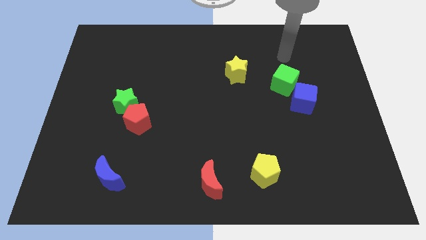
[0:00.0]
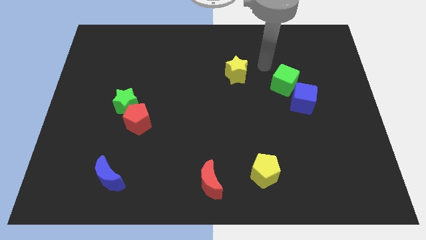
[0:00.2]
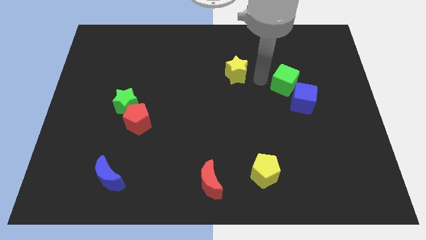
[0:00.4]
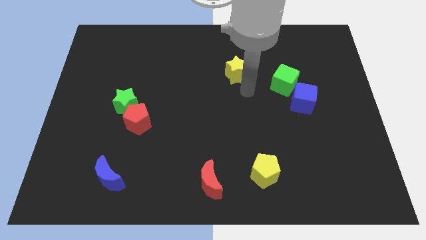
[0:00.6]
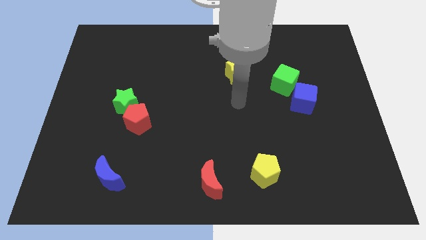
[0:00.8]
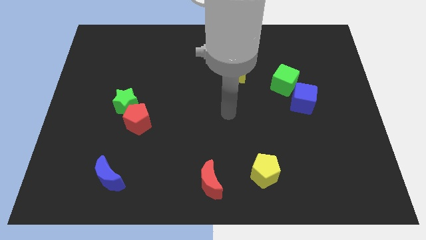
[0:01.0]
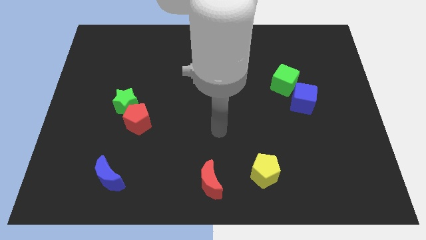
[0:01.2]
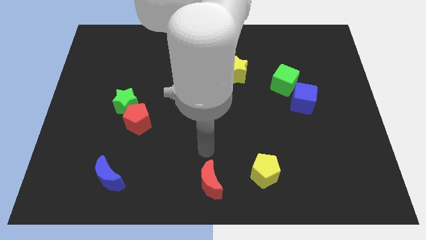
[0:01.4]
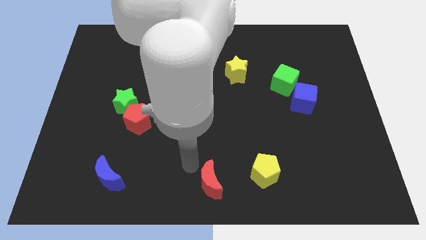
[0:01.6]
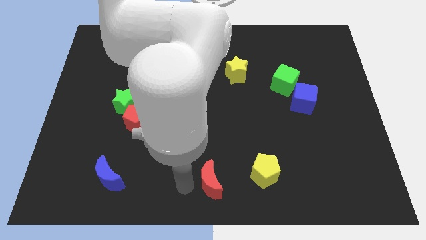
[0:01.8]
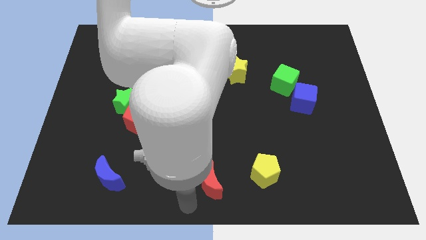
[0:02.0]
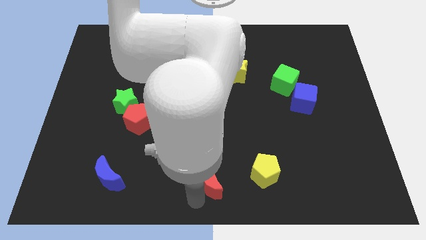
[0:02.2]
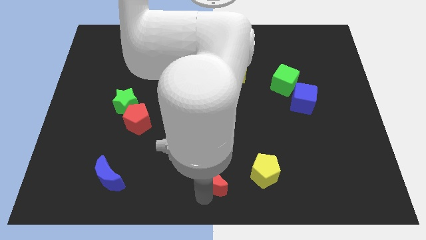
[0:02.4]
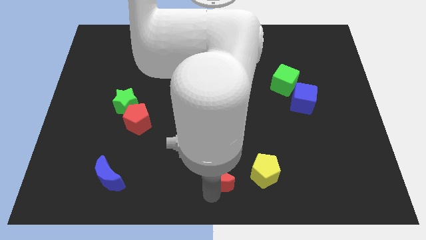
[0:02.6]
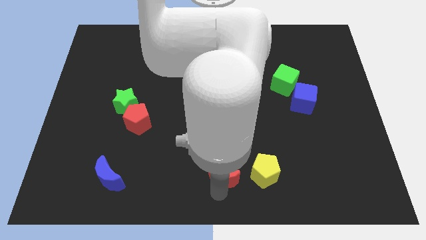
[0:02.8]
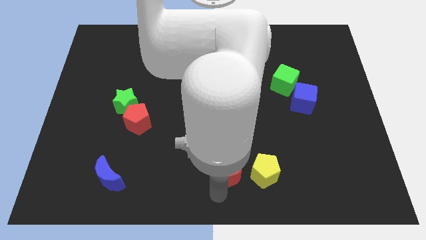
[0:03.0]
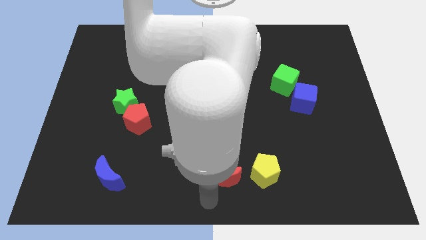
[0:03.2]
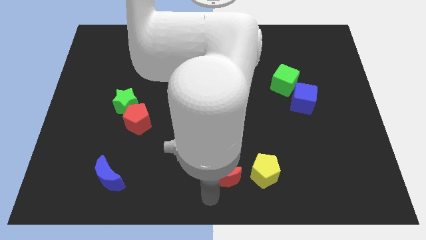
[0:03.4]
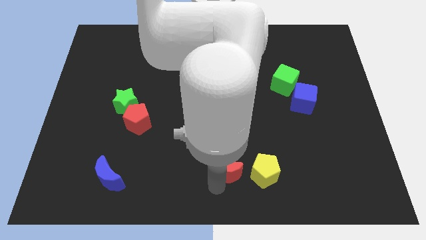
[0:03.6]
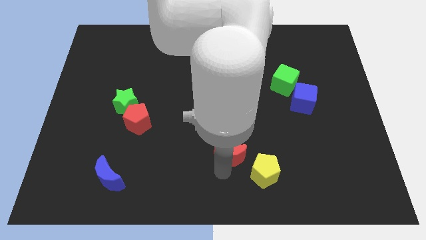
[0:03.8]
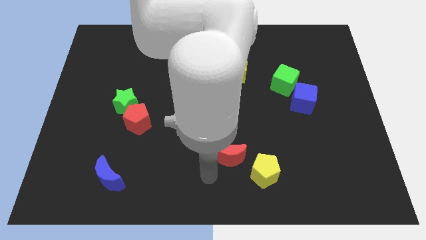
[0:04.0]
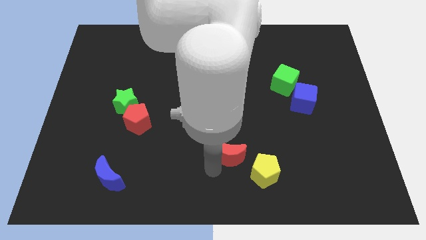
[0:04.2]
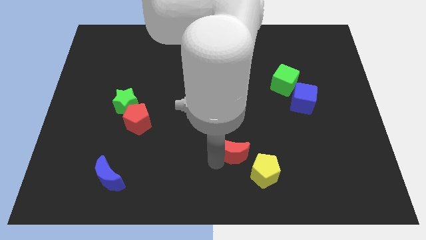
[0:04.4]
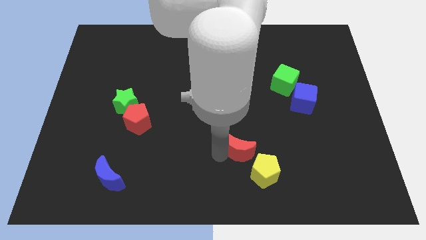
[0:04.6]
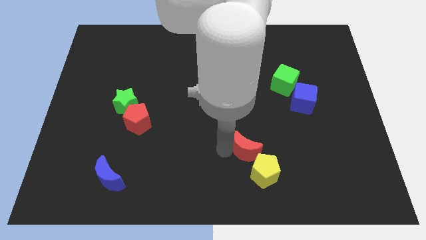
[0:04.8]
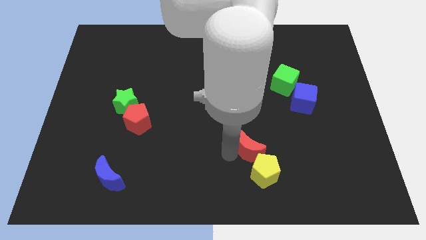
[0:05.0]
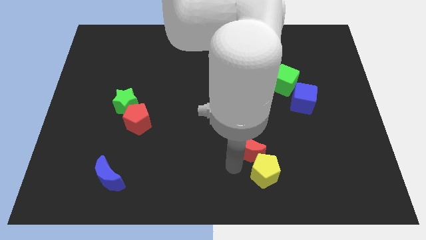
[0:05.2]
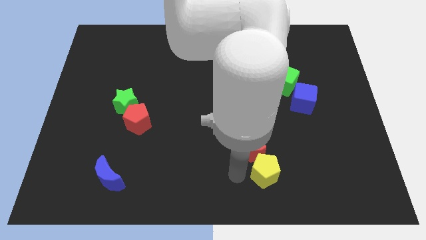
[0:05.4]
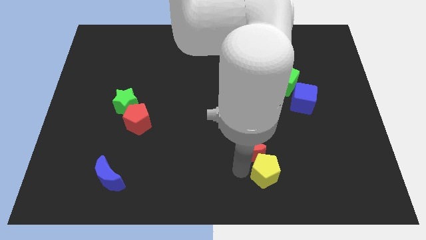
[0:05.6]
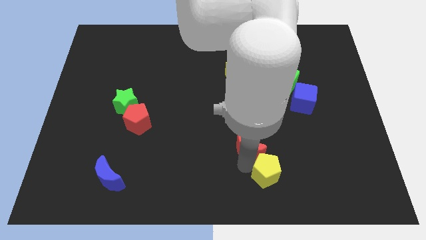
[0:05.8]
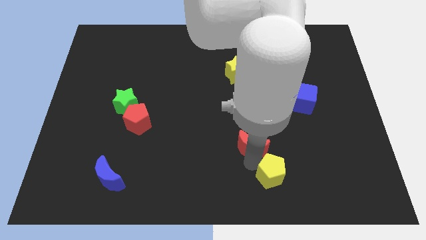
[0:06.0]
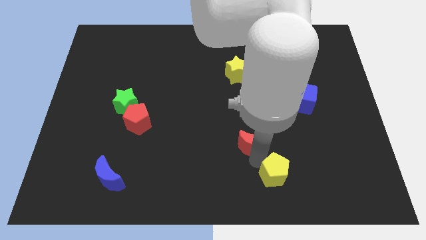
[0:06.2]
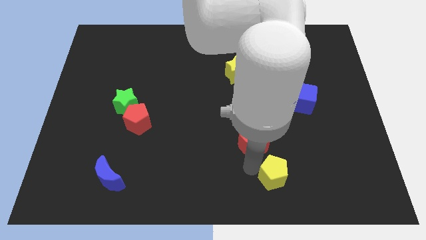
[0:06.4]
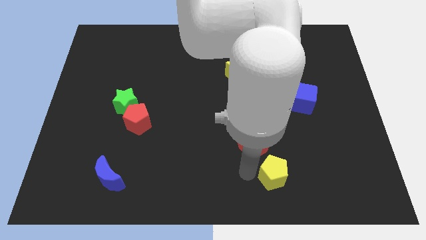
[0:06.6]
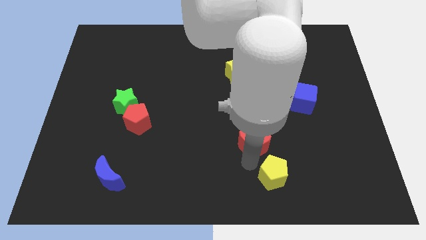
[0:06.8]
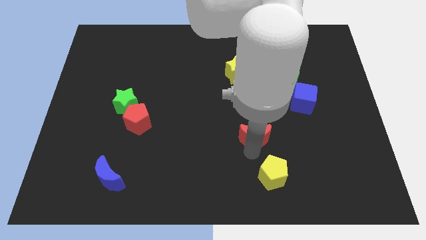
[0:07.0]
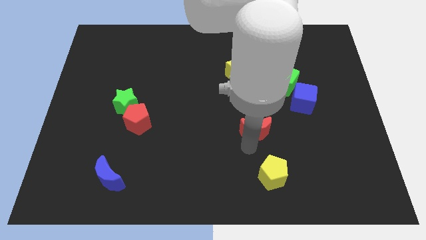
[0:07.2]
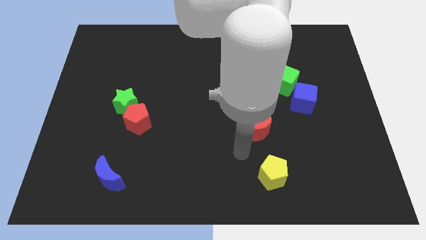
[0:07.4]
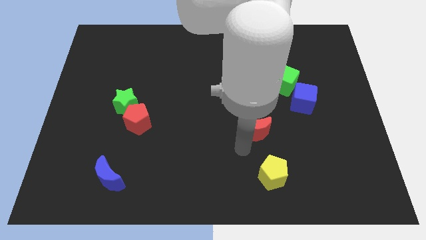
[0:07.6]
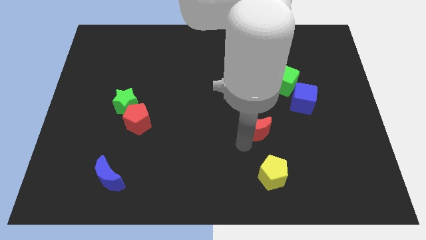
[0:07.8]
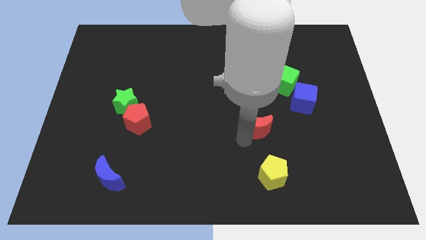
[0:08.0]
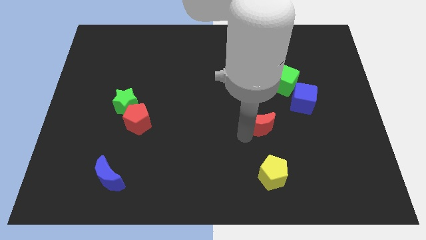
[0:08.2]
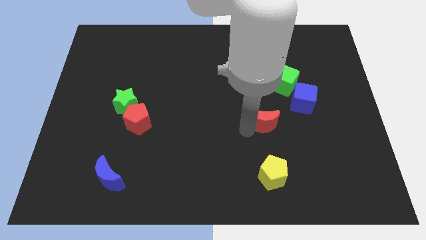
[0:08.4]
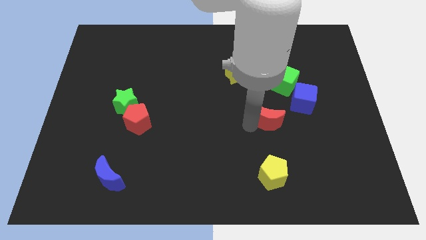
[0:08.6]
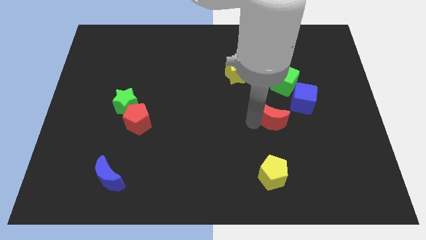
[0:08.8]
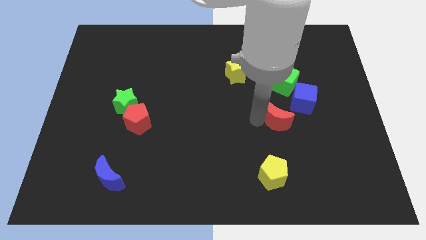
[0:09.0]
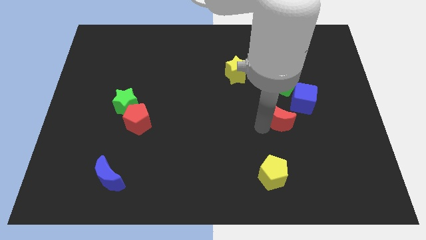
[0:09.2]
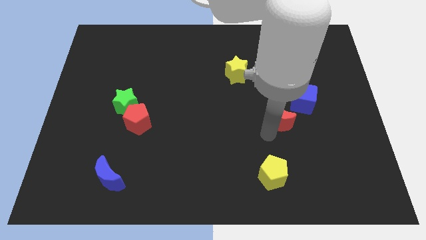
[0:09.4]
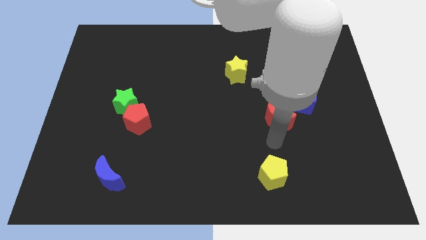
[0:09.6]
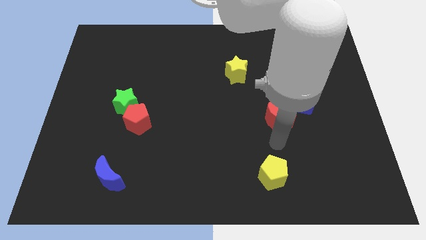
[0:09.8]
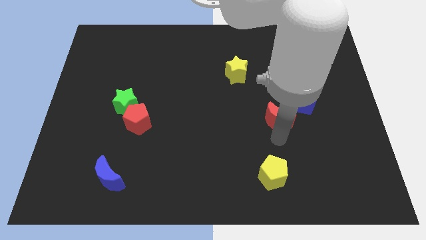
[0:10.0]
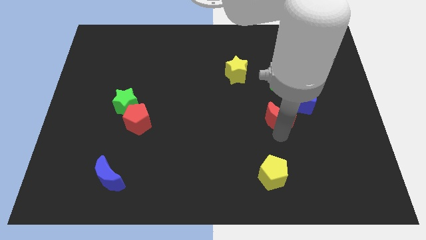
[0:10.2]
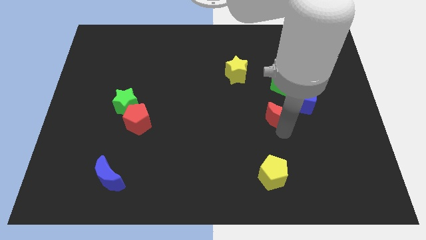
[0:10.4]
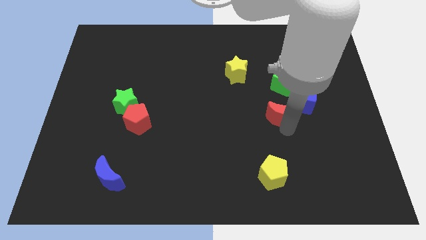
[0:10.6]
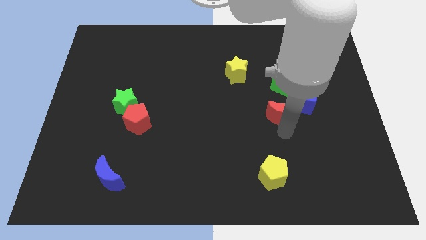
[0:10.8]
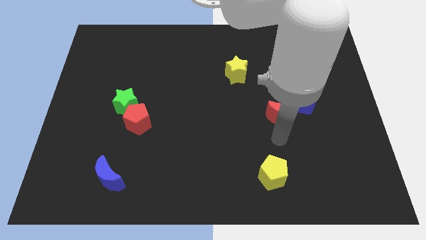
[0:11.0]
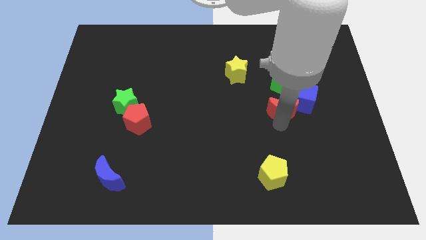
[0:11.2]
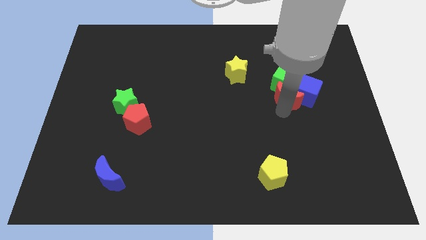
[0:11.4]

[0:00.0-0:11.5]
move the red moon next to the green cube

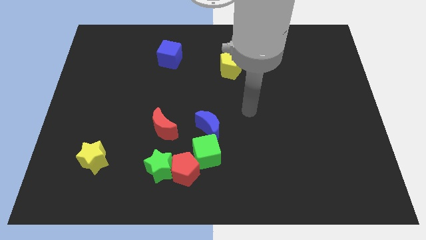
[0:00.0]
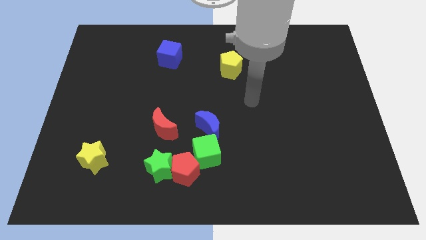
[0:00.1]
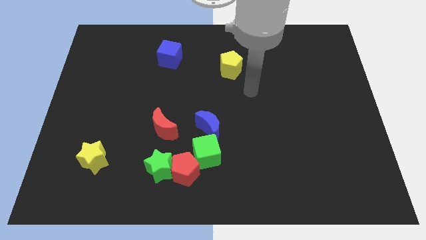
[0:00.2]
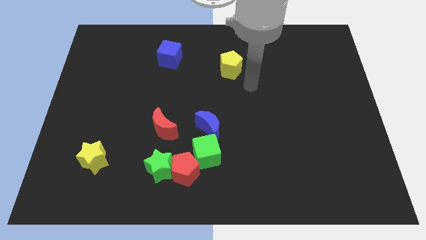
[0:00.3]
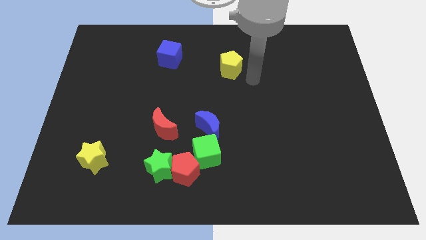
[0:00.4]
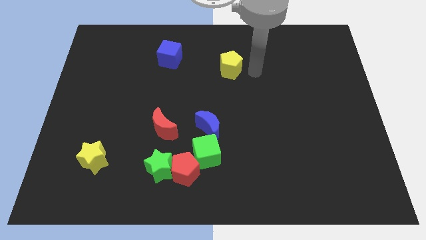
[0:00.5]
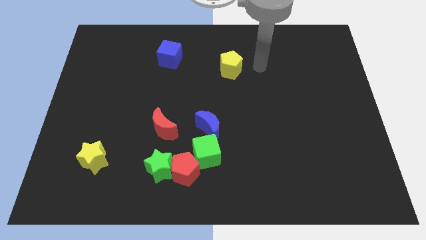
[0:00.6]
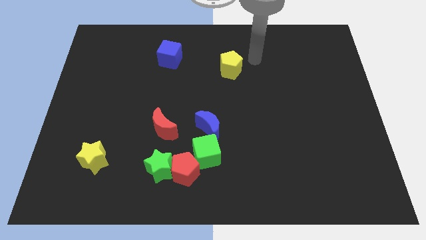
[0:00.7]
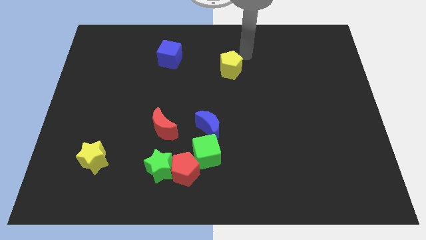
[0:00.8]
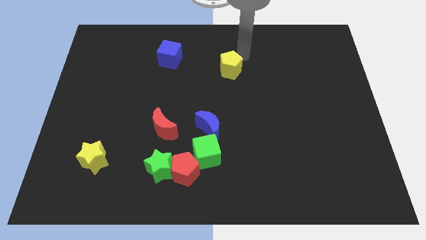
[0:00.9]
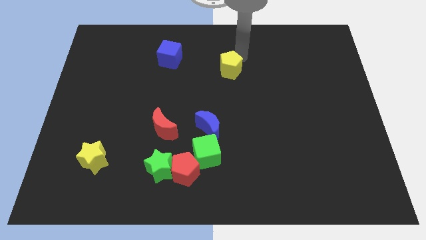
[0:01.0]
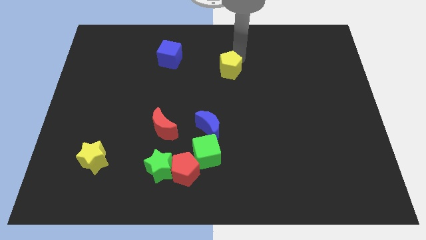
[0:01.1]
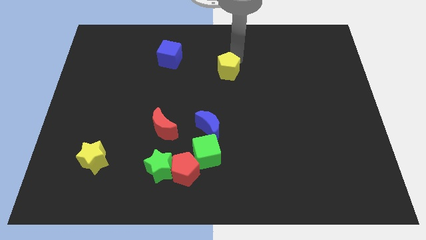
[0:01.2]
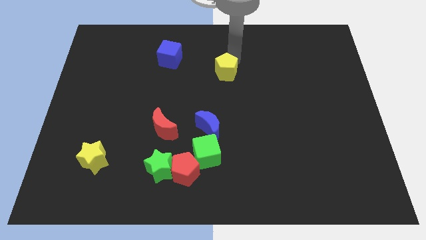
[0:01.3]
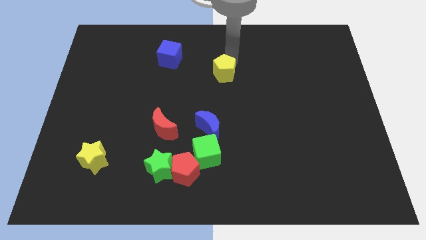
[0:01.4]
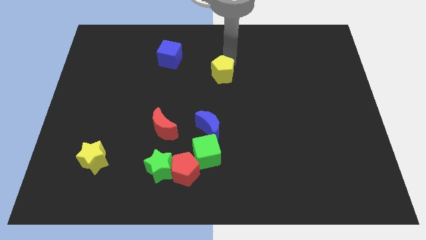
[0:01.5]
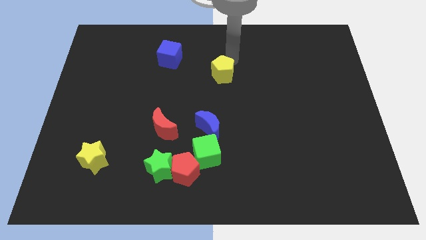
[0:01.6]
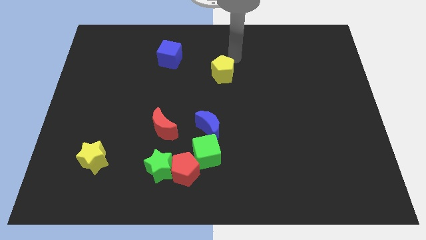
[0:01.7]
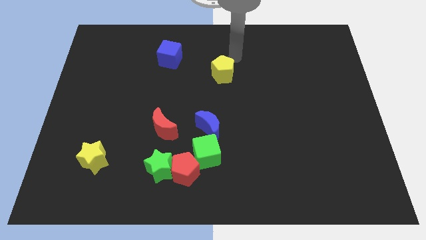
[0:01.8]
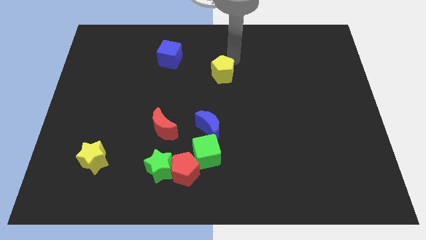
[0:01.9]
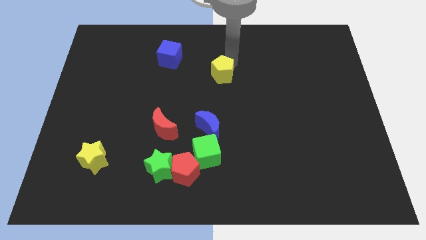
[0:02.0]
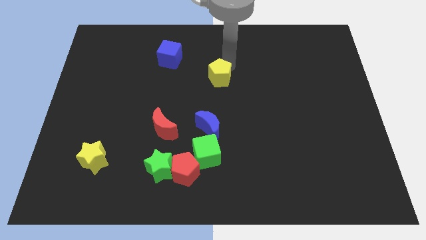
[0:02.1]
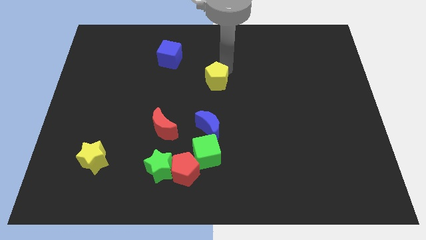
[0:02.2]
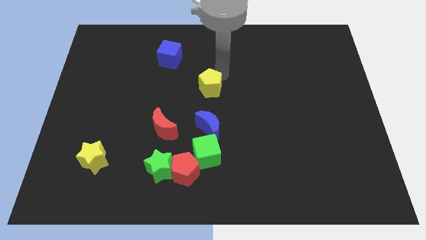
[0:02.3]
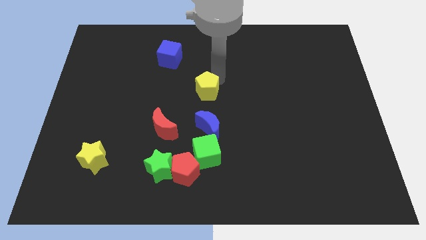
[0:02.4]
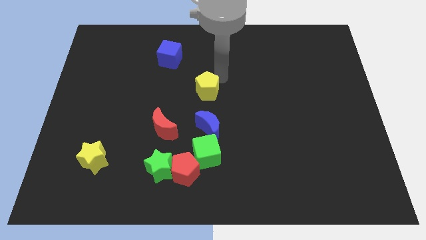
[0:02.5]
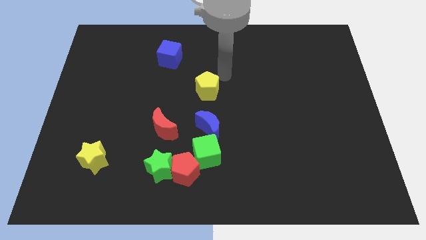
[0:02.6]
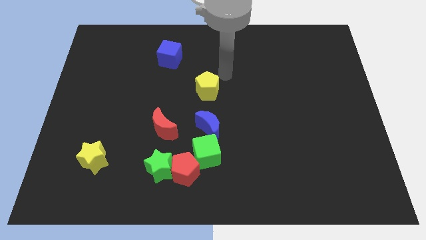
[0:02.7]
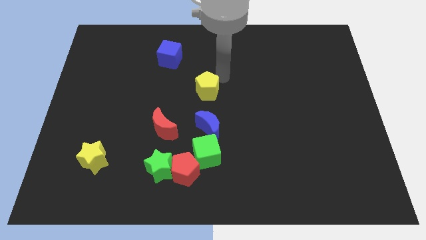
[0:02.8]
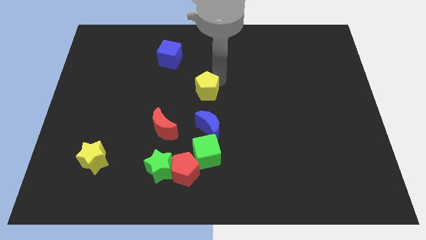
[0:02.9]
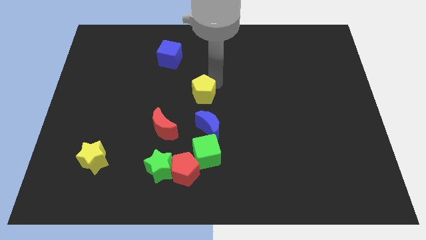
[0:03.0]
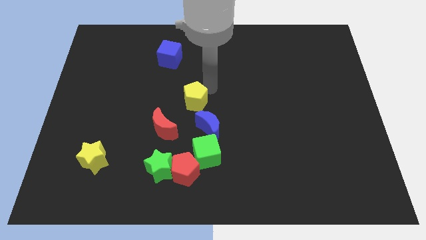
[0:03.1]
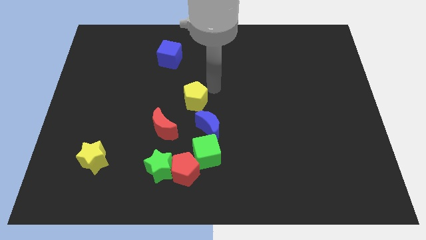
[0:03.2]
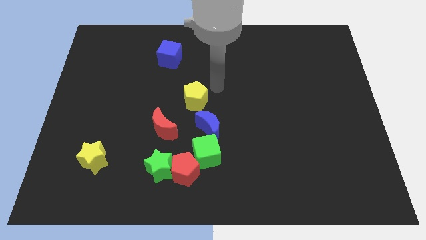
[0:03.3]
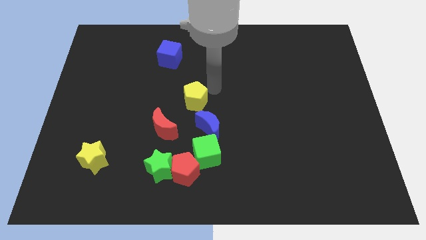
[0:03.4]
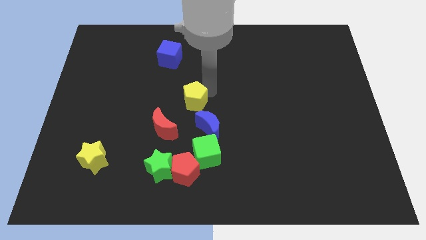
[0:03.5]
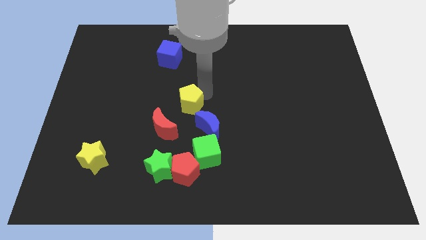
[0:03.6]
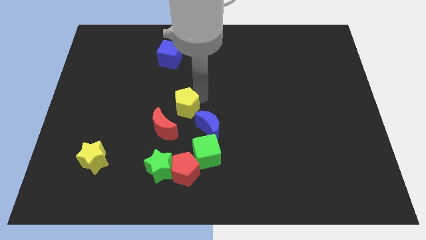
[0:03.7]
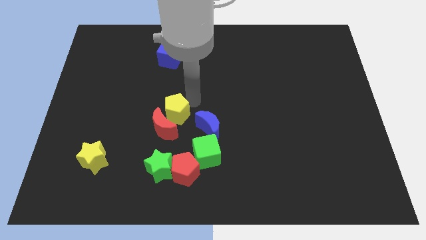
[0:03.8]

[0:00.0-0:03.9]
put the yellow pentagon towards the red moon
